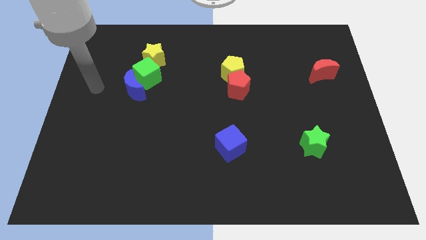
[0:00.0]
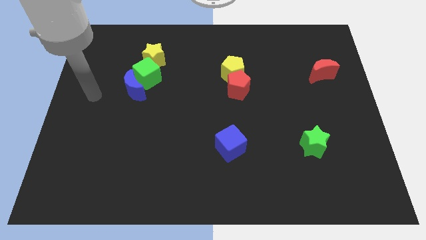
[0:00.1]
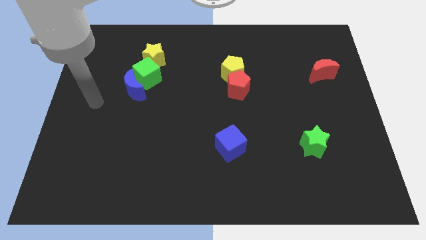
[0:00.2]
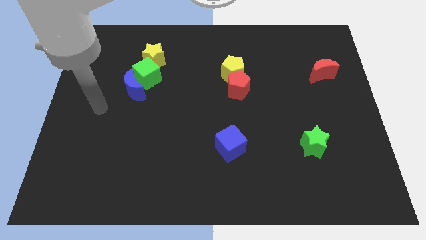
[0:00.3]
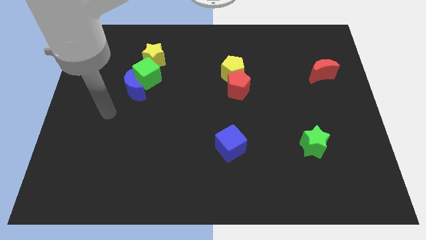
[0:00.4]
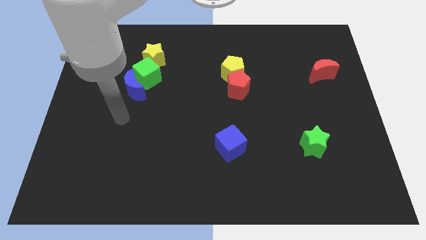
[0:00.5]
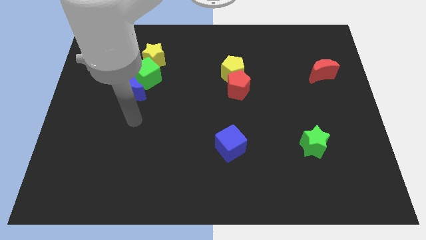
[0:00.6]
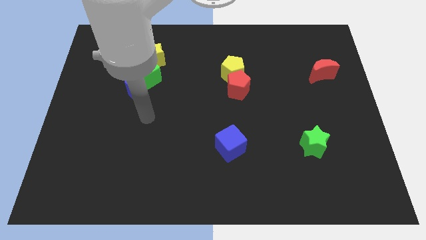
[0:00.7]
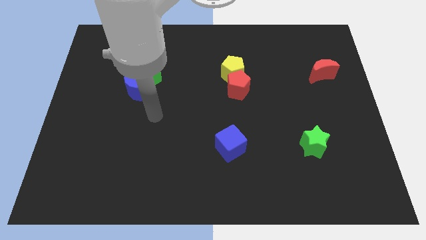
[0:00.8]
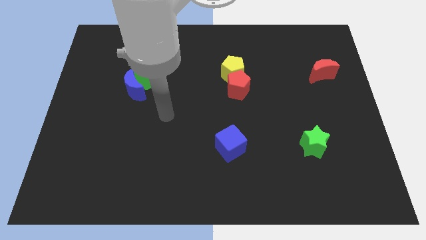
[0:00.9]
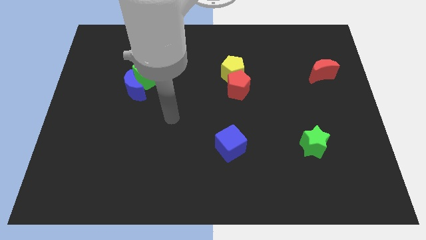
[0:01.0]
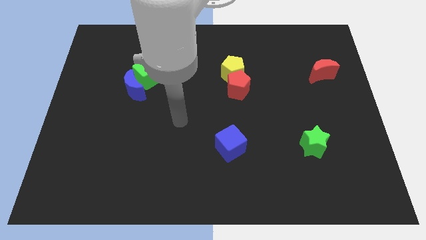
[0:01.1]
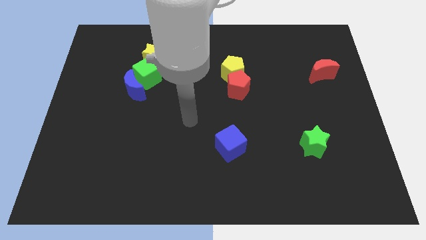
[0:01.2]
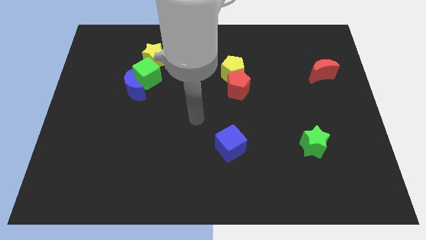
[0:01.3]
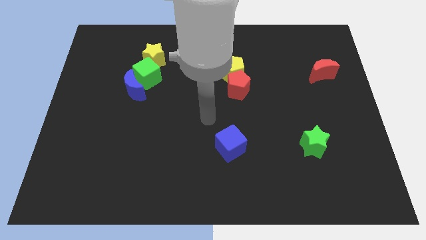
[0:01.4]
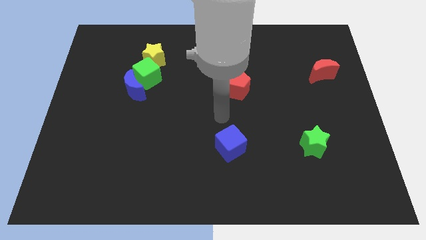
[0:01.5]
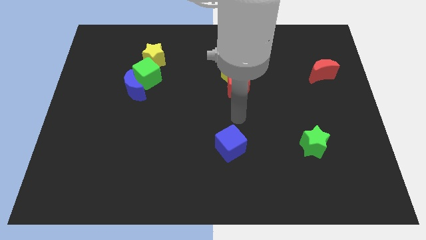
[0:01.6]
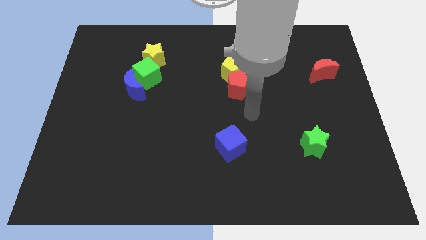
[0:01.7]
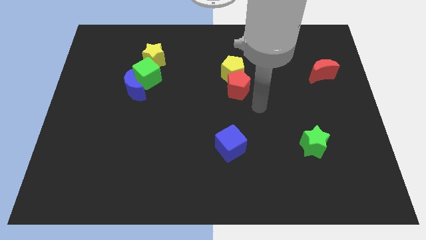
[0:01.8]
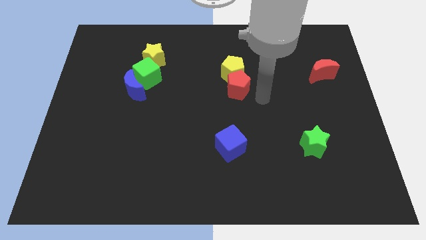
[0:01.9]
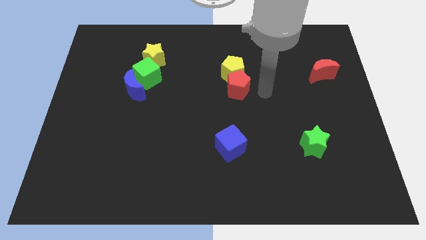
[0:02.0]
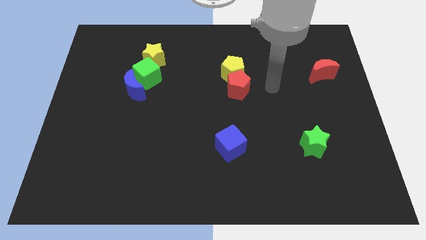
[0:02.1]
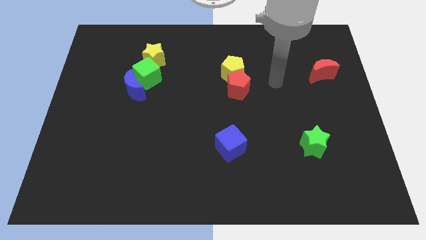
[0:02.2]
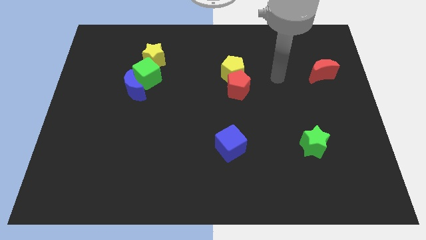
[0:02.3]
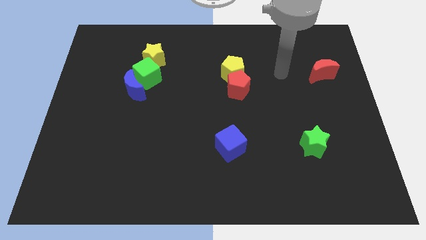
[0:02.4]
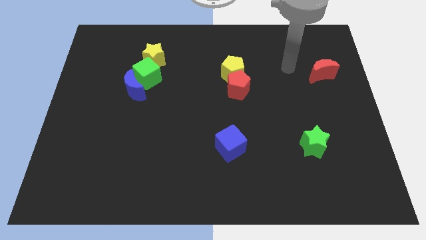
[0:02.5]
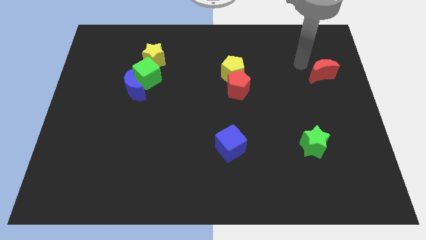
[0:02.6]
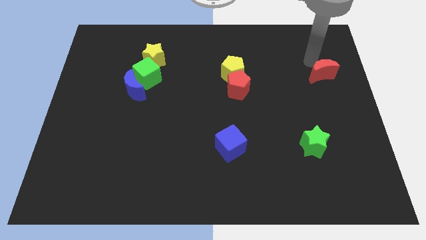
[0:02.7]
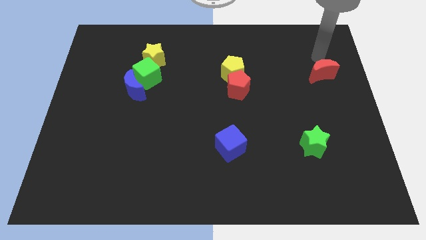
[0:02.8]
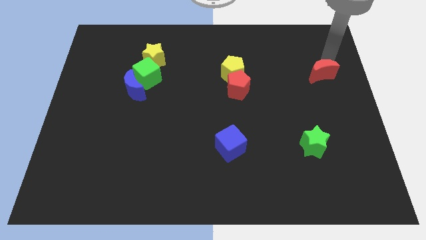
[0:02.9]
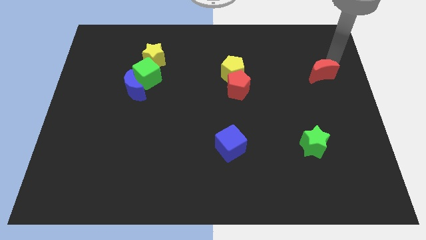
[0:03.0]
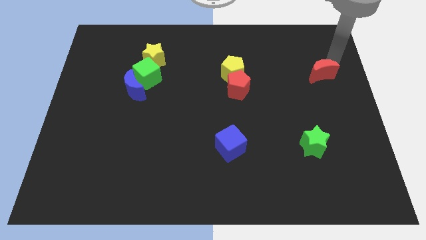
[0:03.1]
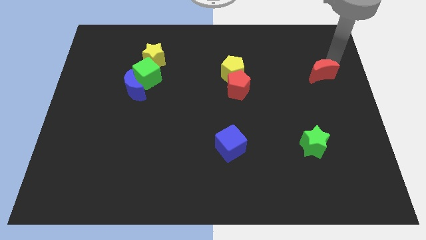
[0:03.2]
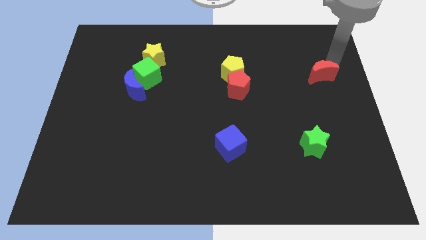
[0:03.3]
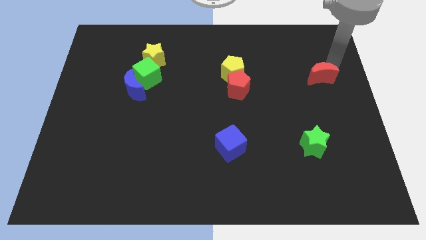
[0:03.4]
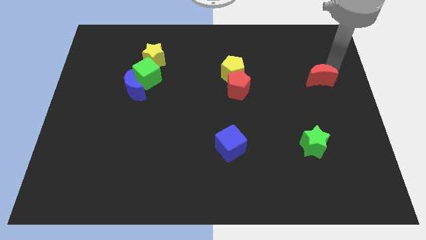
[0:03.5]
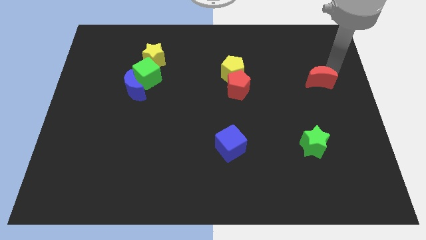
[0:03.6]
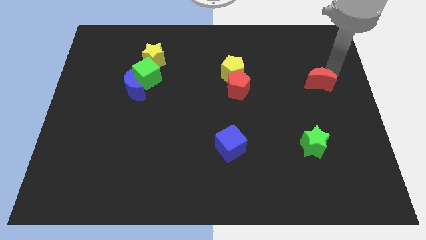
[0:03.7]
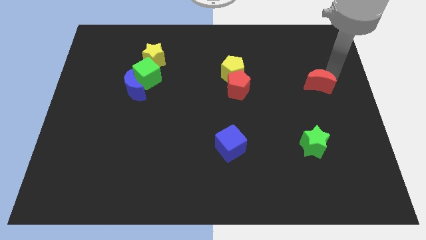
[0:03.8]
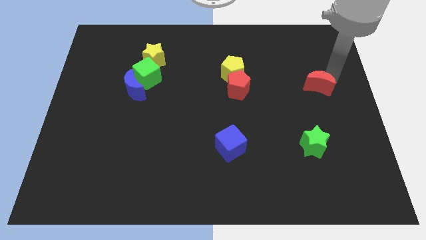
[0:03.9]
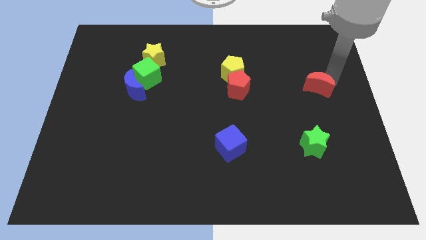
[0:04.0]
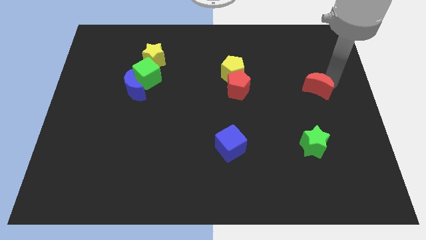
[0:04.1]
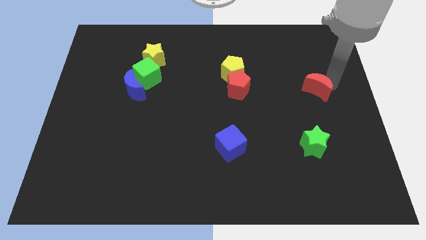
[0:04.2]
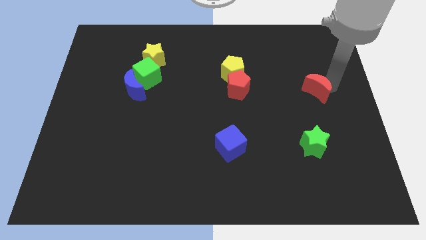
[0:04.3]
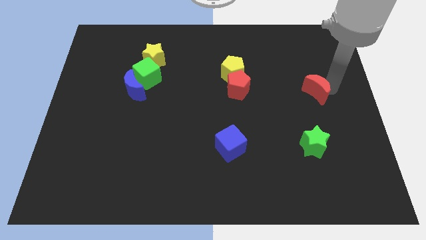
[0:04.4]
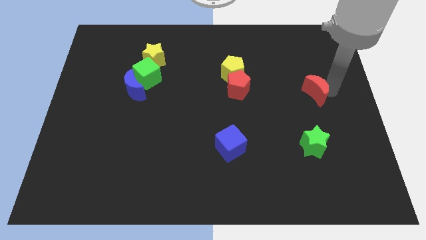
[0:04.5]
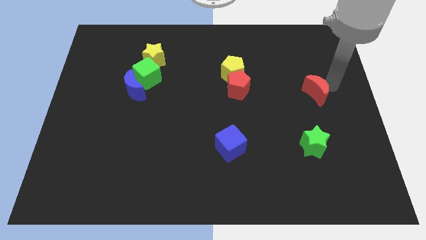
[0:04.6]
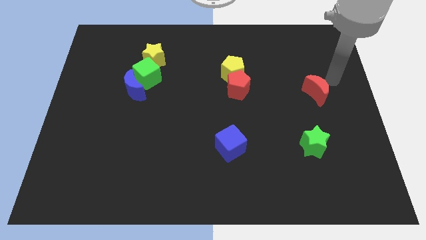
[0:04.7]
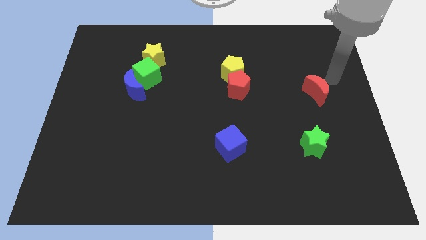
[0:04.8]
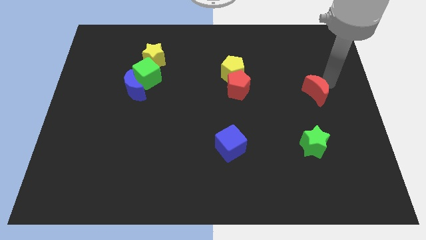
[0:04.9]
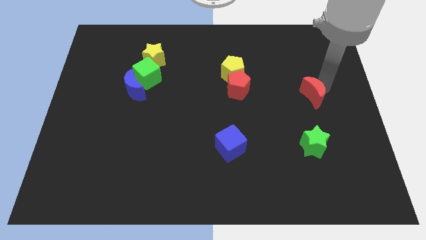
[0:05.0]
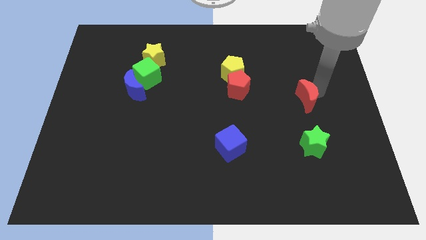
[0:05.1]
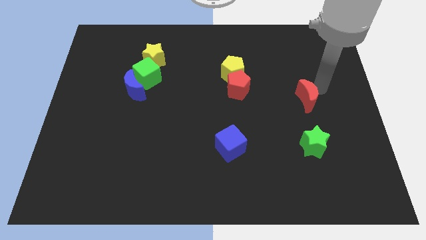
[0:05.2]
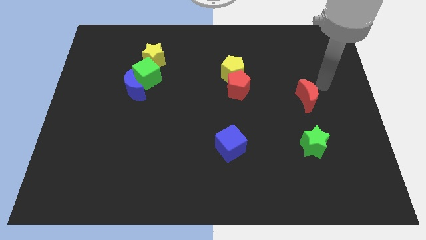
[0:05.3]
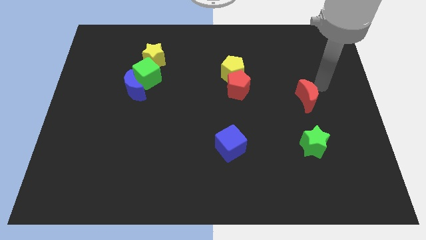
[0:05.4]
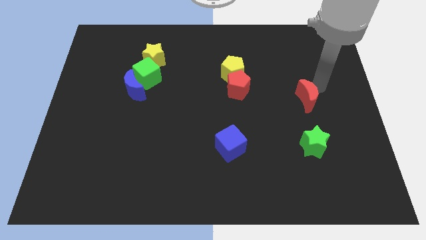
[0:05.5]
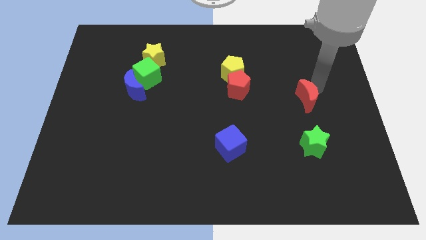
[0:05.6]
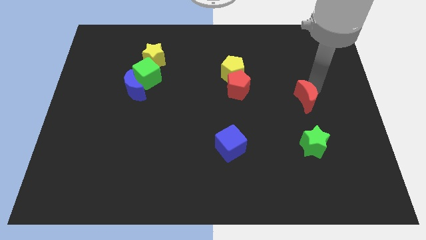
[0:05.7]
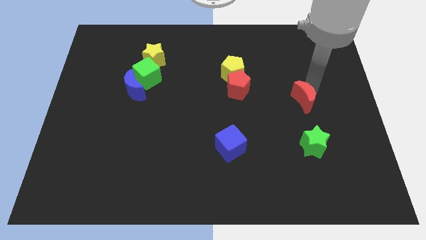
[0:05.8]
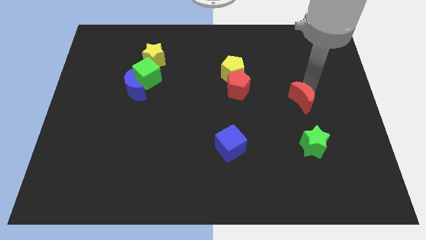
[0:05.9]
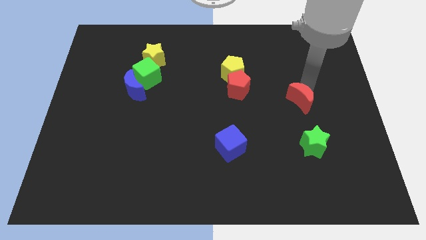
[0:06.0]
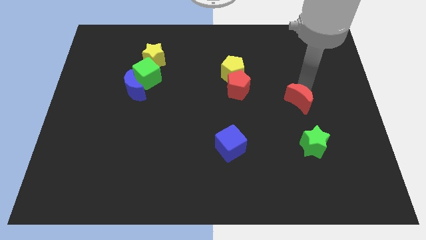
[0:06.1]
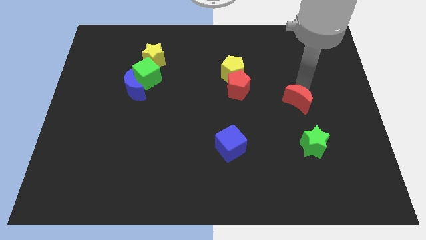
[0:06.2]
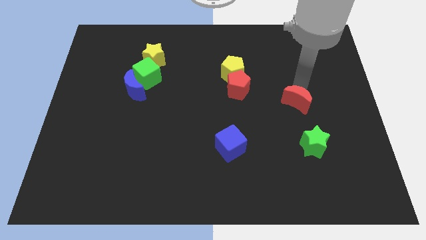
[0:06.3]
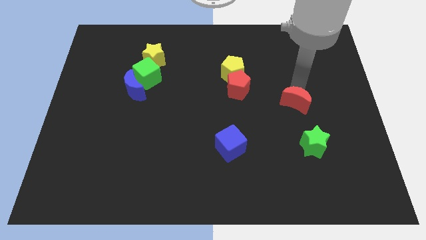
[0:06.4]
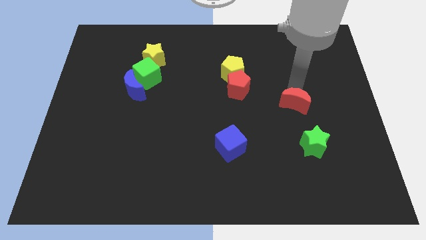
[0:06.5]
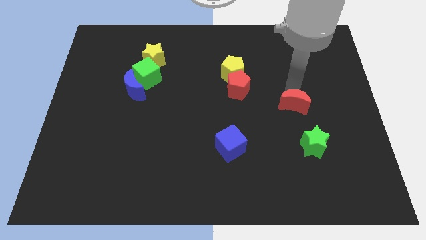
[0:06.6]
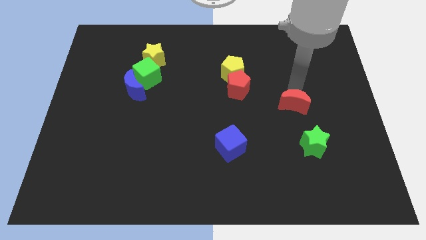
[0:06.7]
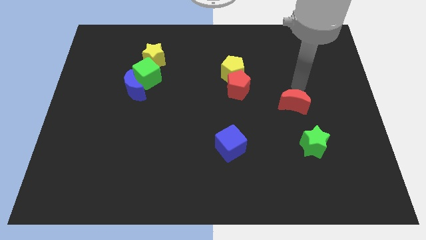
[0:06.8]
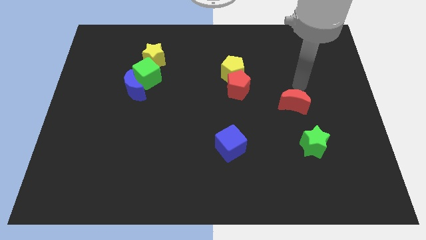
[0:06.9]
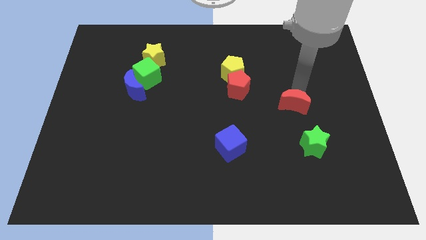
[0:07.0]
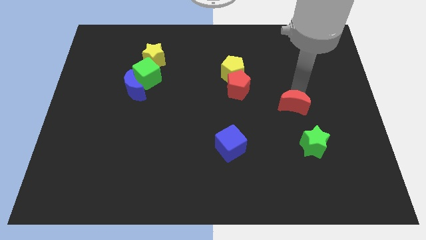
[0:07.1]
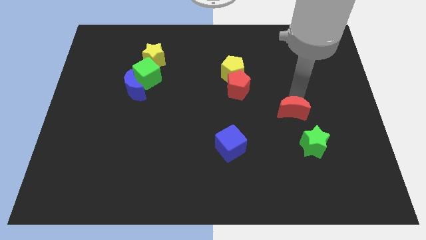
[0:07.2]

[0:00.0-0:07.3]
push the red moon to the top left of the green star
